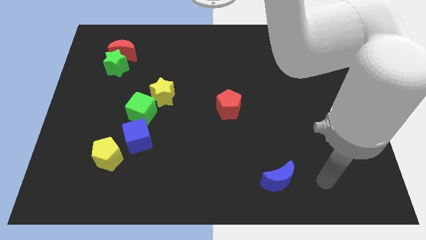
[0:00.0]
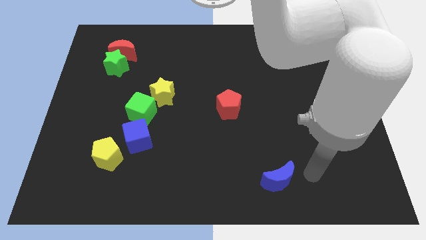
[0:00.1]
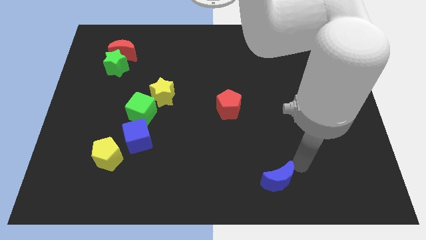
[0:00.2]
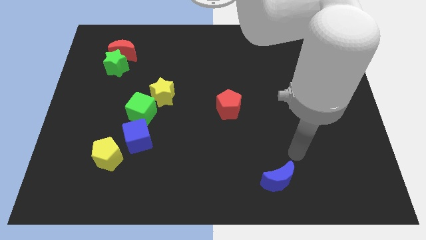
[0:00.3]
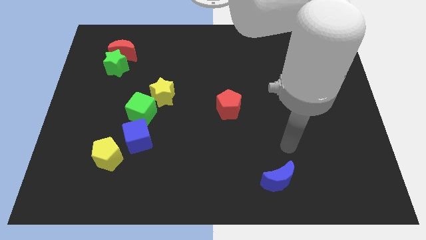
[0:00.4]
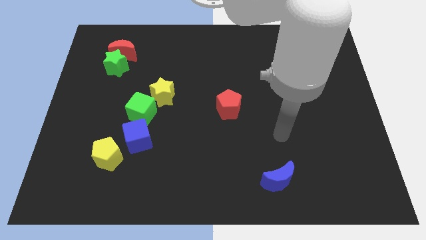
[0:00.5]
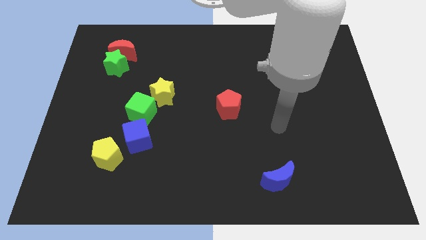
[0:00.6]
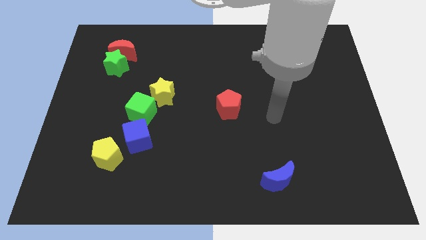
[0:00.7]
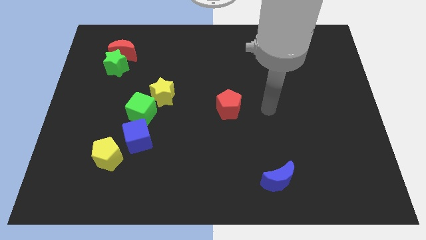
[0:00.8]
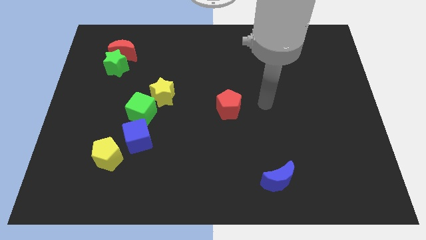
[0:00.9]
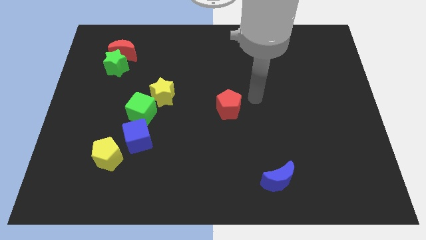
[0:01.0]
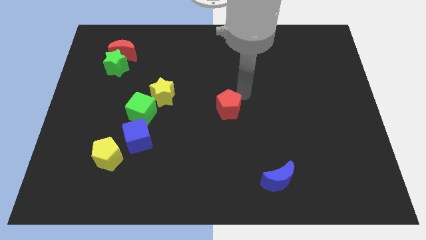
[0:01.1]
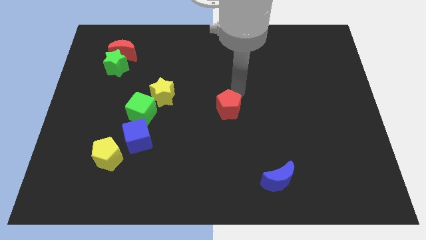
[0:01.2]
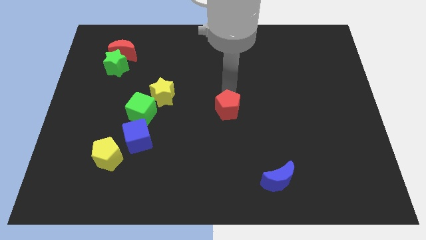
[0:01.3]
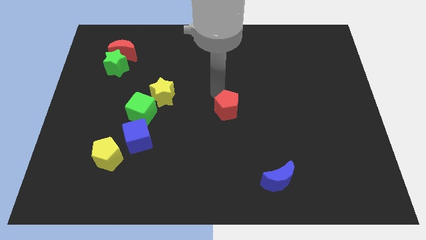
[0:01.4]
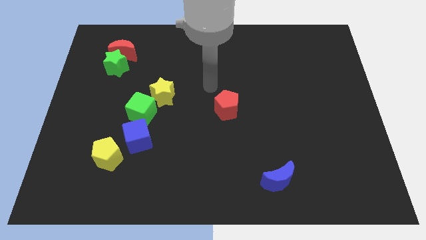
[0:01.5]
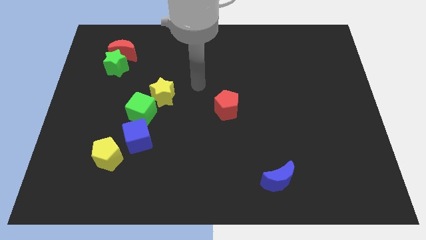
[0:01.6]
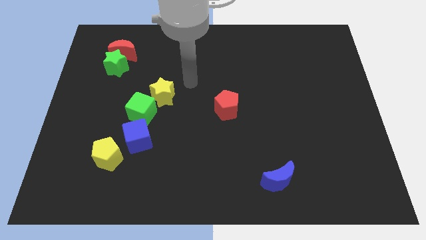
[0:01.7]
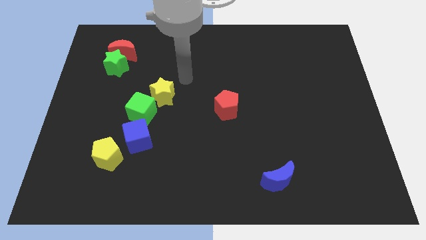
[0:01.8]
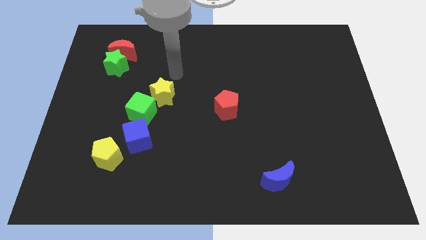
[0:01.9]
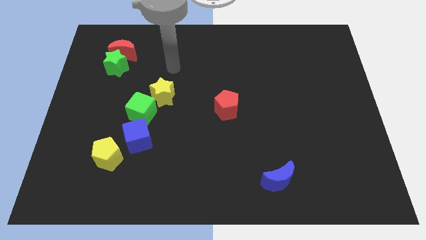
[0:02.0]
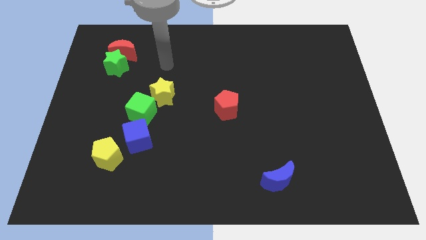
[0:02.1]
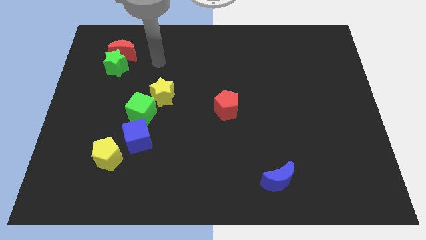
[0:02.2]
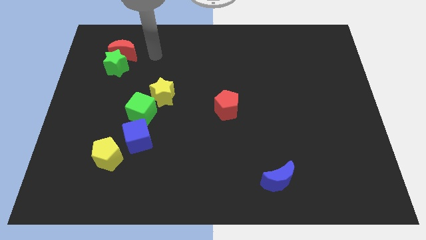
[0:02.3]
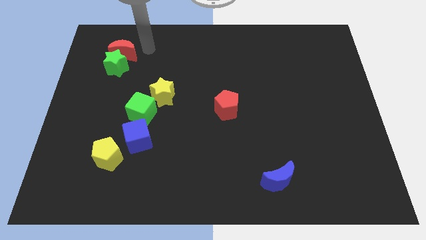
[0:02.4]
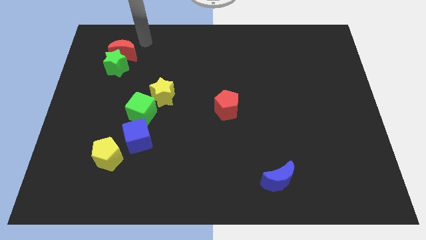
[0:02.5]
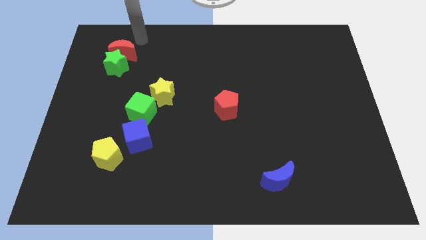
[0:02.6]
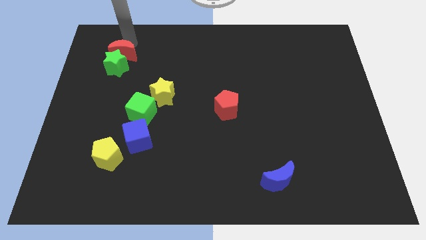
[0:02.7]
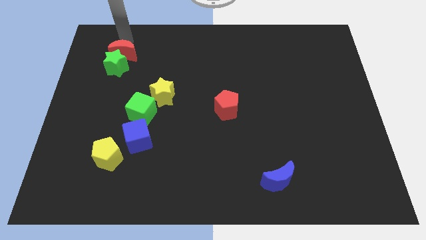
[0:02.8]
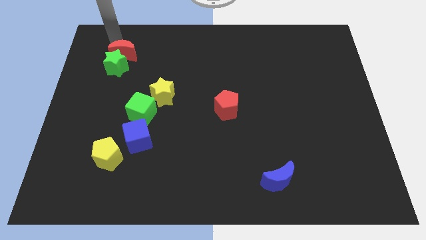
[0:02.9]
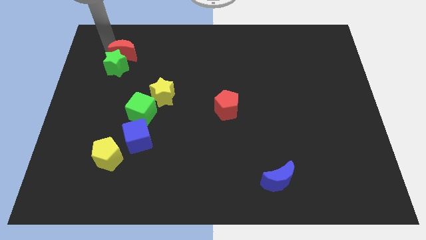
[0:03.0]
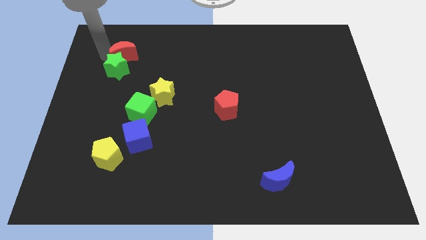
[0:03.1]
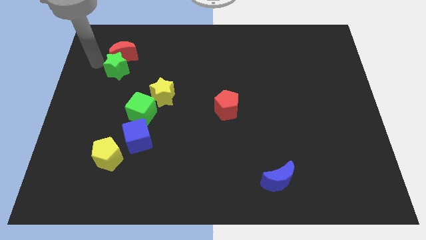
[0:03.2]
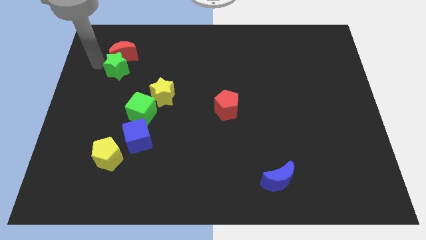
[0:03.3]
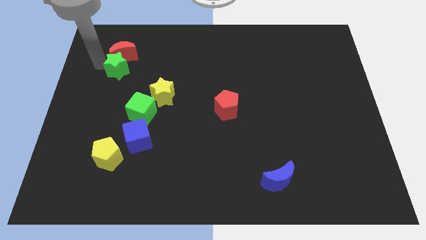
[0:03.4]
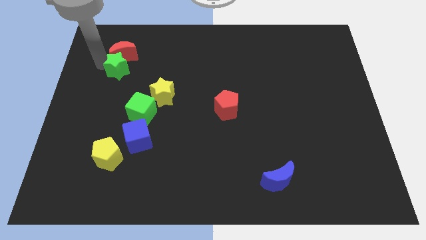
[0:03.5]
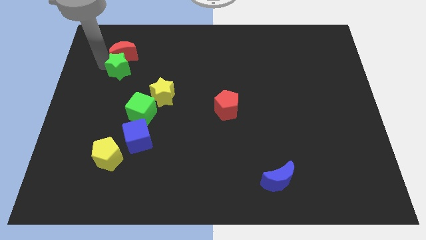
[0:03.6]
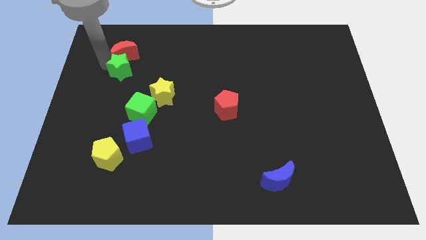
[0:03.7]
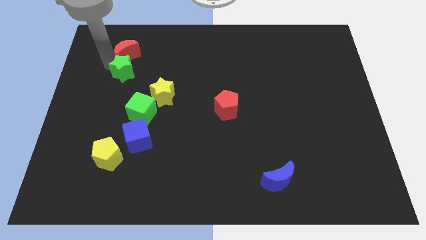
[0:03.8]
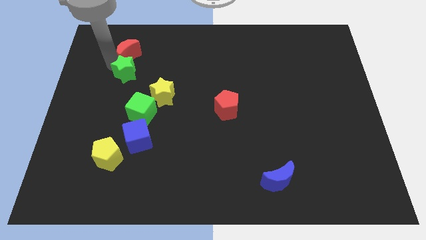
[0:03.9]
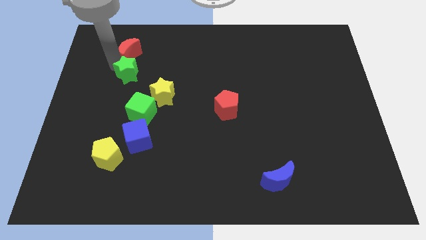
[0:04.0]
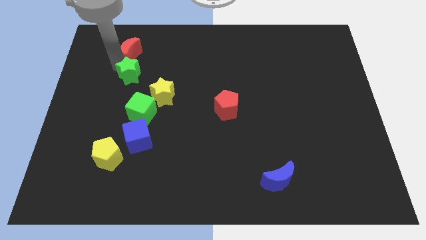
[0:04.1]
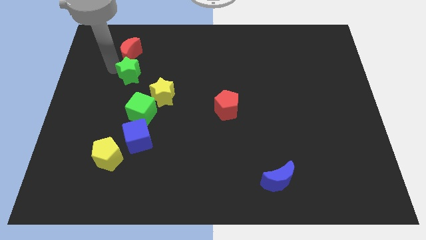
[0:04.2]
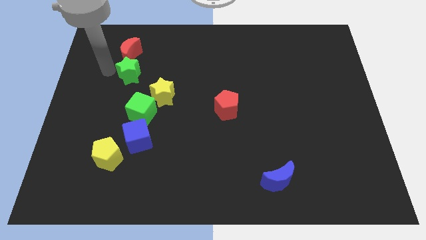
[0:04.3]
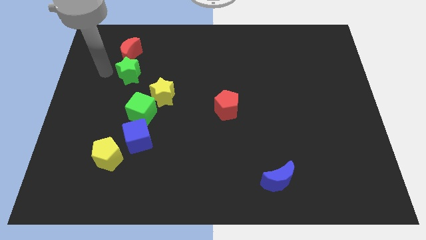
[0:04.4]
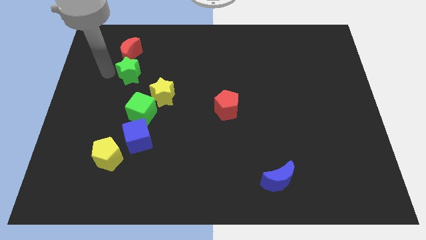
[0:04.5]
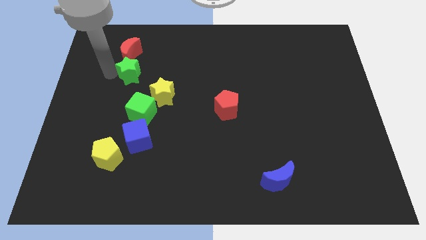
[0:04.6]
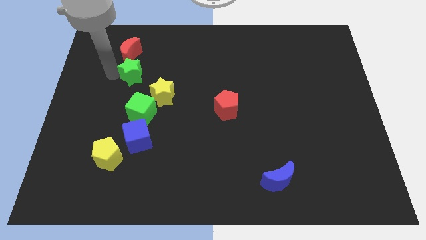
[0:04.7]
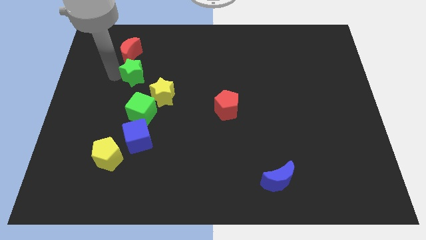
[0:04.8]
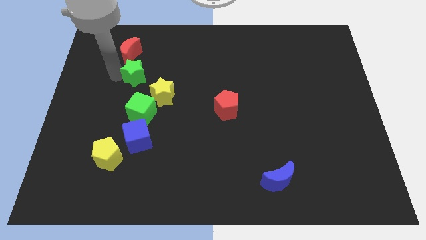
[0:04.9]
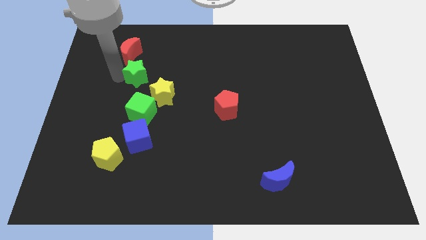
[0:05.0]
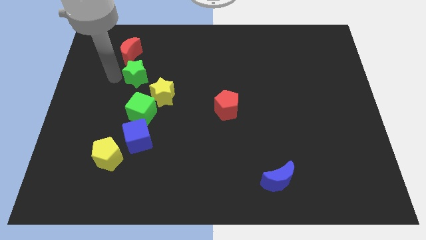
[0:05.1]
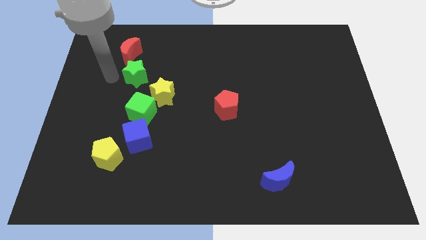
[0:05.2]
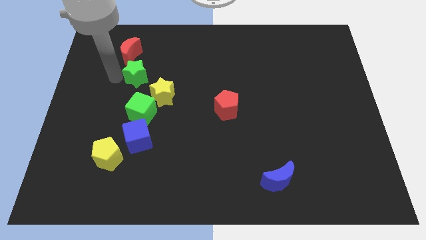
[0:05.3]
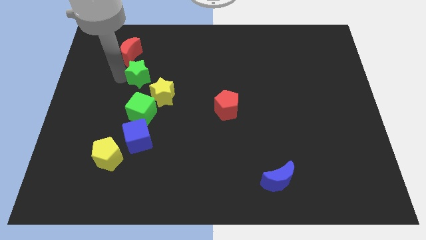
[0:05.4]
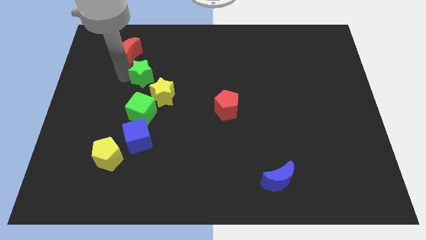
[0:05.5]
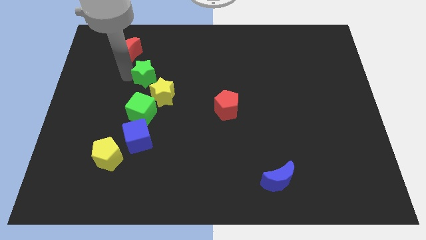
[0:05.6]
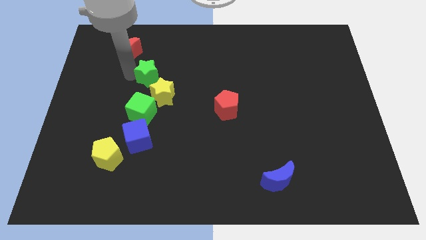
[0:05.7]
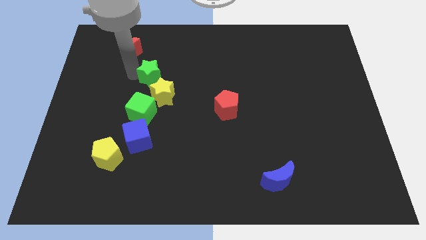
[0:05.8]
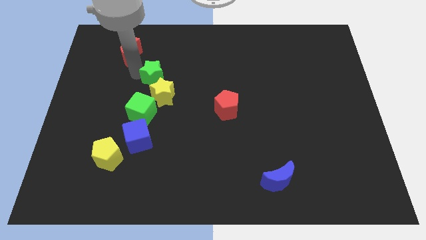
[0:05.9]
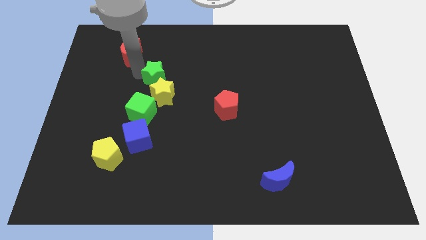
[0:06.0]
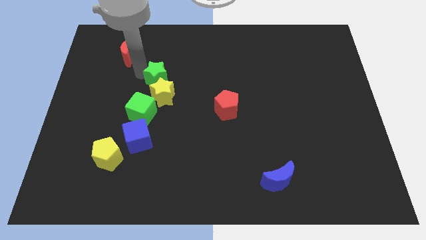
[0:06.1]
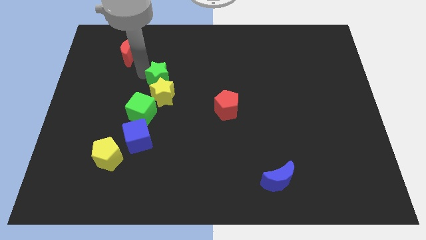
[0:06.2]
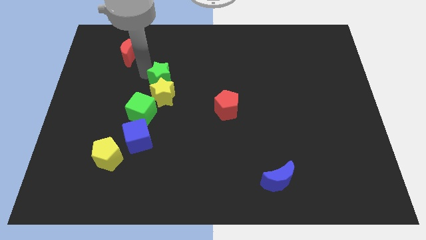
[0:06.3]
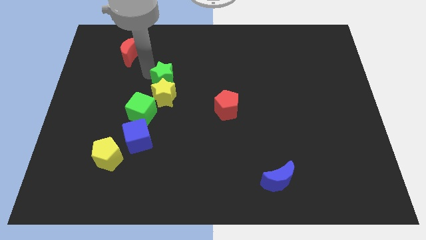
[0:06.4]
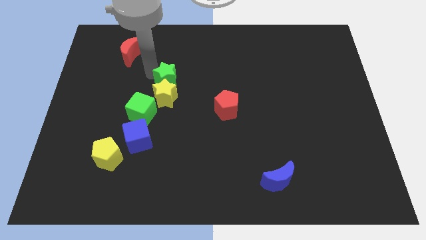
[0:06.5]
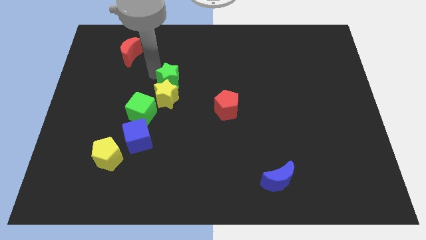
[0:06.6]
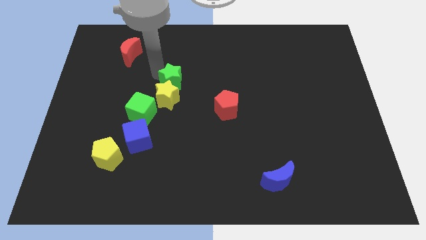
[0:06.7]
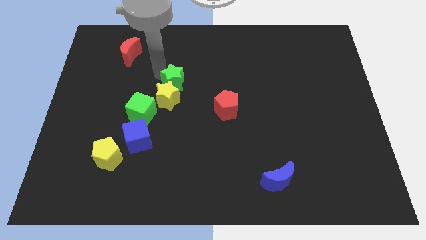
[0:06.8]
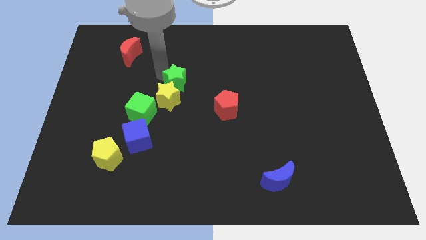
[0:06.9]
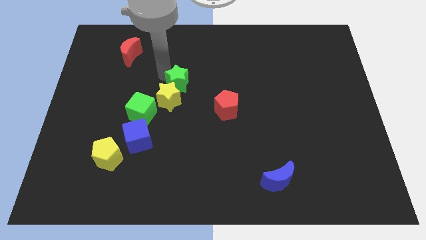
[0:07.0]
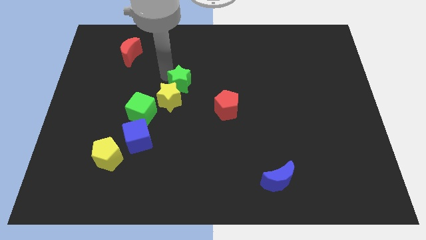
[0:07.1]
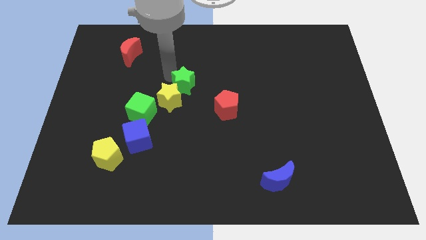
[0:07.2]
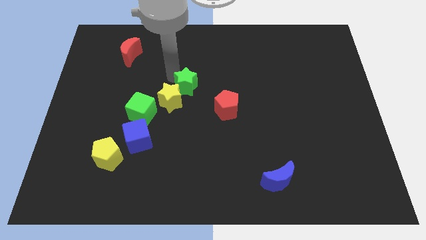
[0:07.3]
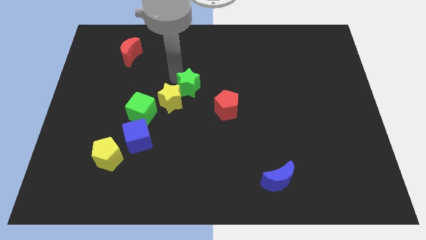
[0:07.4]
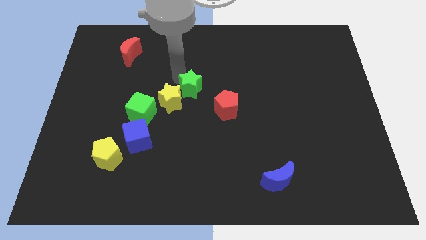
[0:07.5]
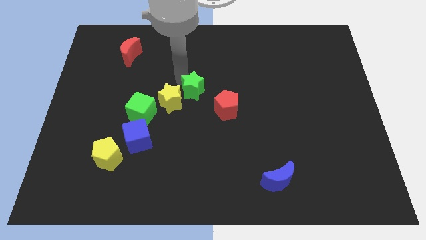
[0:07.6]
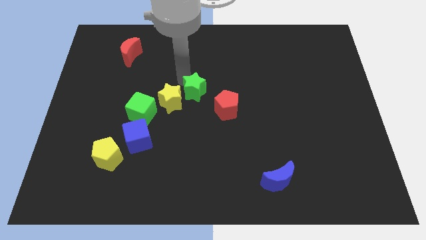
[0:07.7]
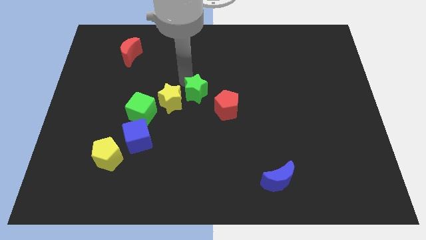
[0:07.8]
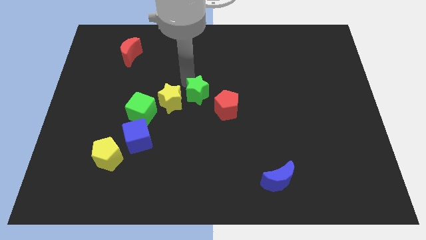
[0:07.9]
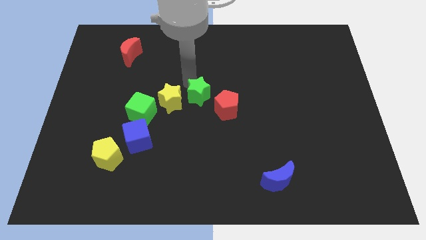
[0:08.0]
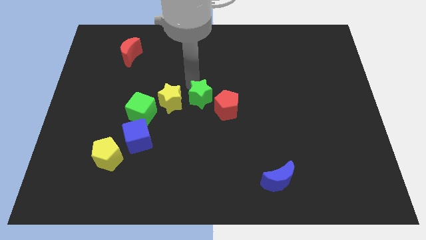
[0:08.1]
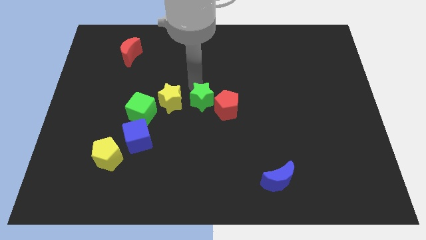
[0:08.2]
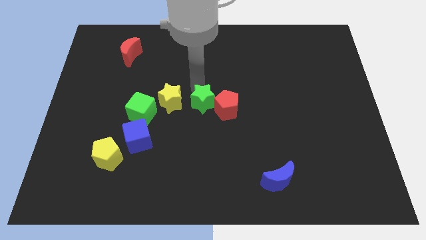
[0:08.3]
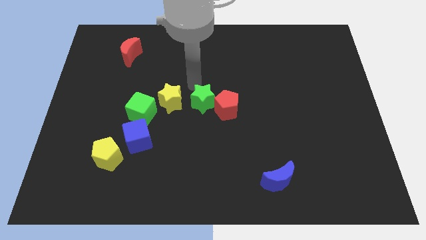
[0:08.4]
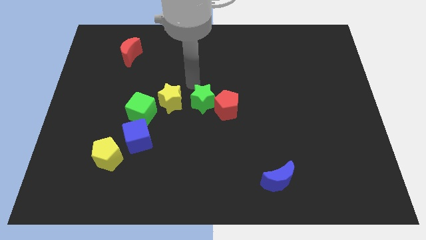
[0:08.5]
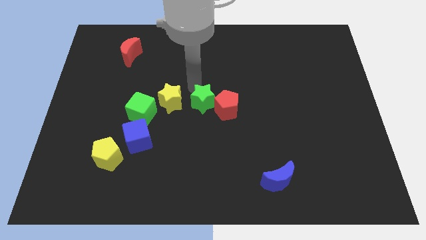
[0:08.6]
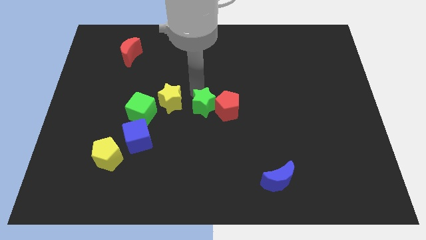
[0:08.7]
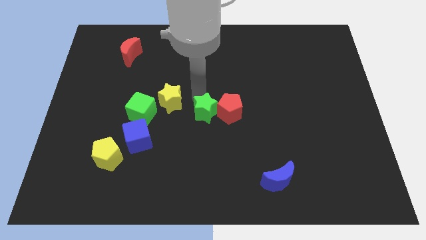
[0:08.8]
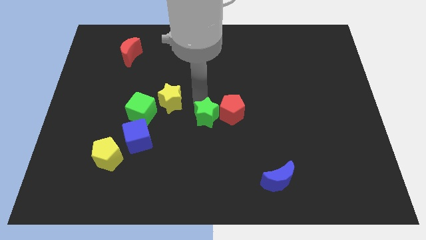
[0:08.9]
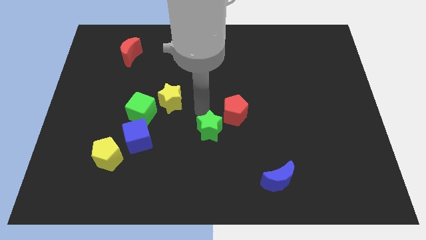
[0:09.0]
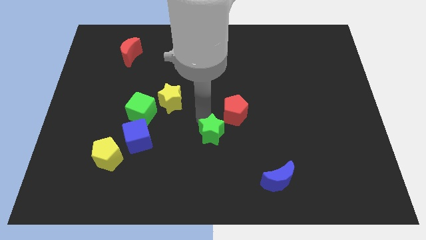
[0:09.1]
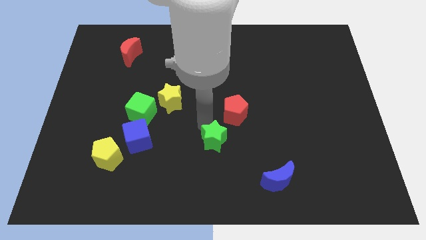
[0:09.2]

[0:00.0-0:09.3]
put the green star below the red pentagon
